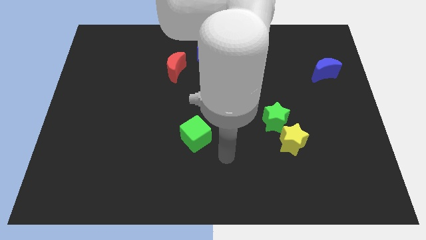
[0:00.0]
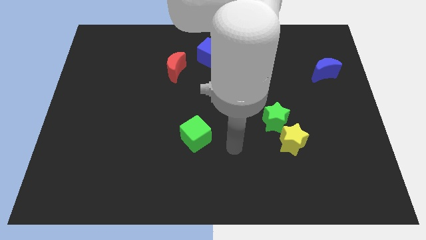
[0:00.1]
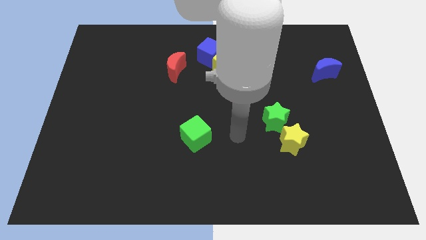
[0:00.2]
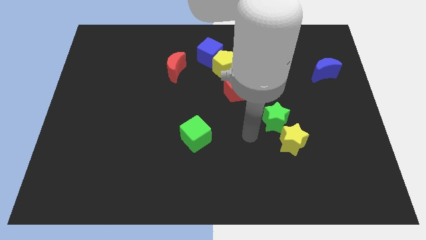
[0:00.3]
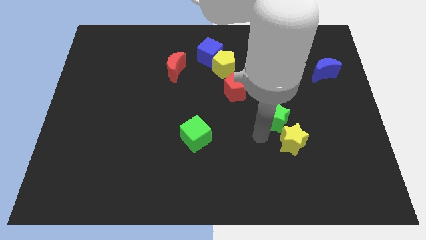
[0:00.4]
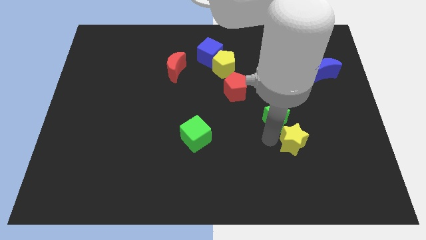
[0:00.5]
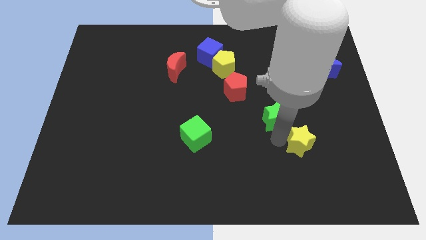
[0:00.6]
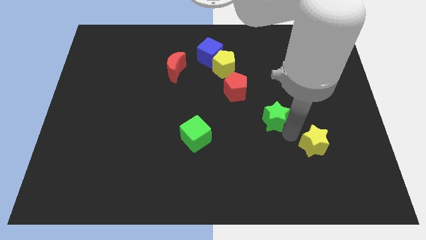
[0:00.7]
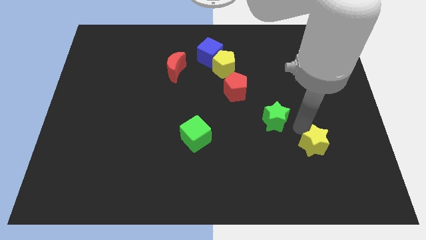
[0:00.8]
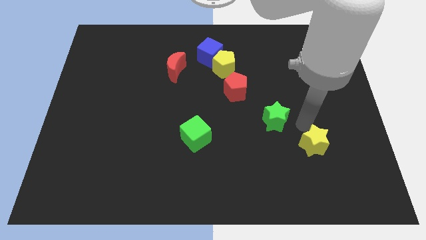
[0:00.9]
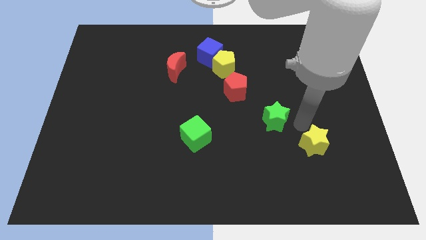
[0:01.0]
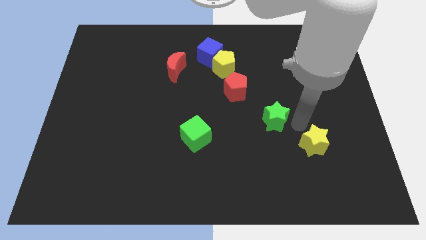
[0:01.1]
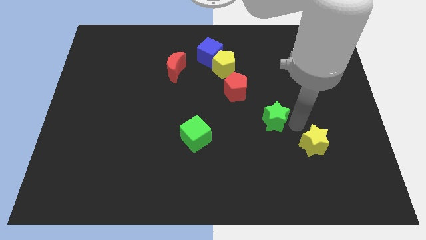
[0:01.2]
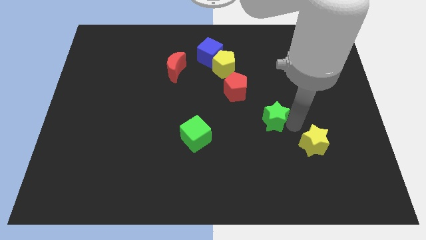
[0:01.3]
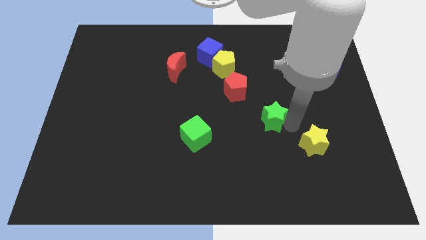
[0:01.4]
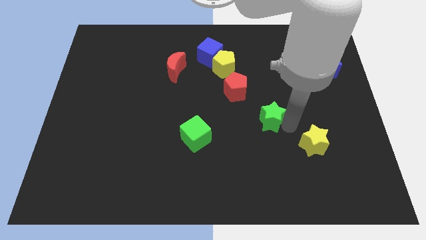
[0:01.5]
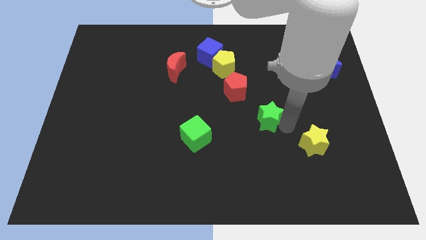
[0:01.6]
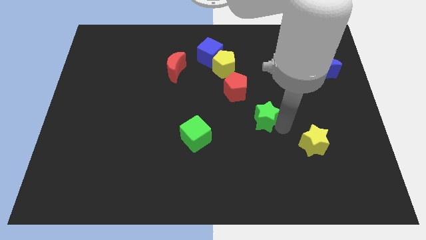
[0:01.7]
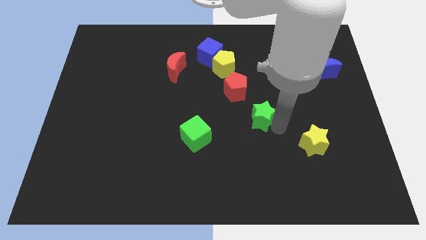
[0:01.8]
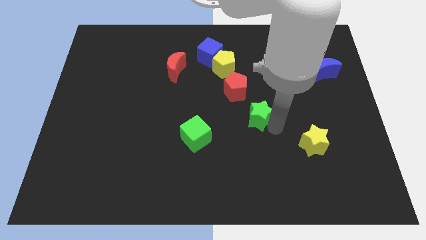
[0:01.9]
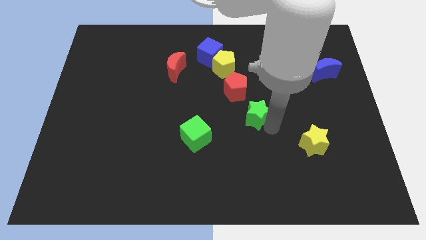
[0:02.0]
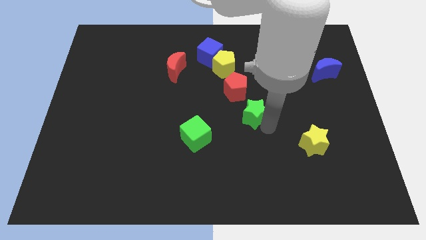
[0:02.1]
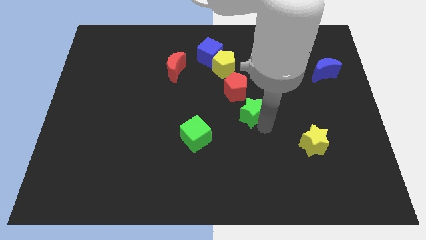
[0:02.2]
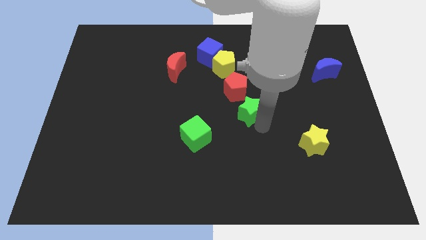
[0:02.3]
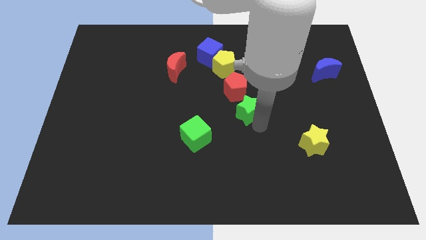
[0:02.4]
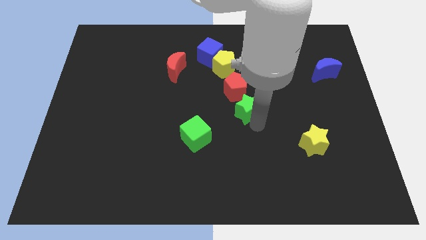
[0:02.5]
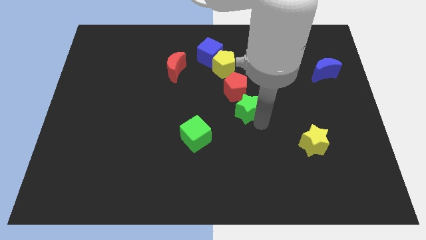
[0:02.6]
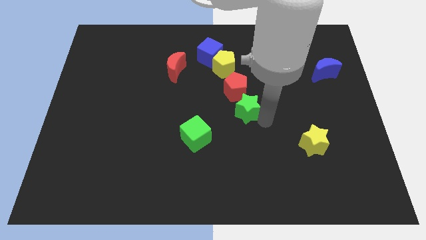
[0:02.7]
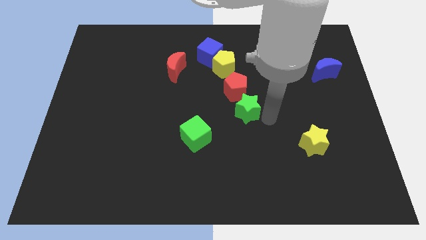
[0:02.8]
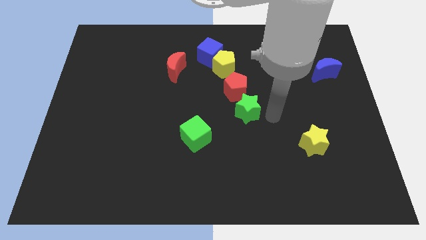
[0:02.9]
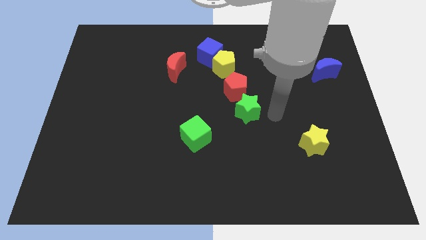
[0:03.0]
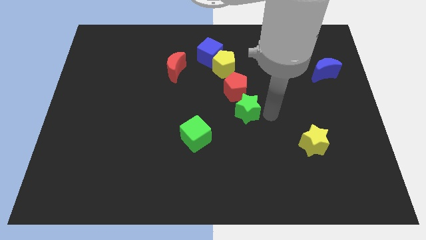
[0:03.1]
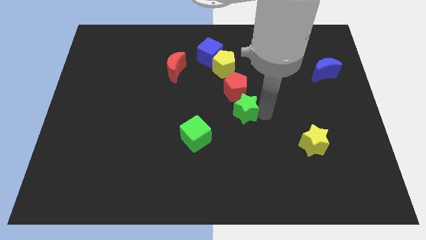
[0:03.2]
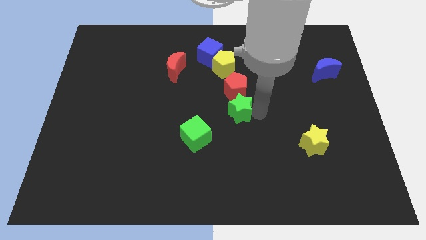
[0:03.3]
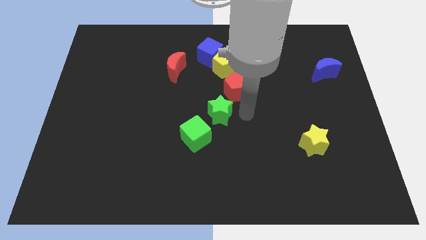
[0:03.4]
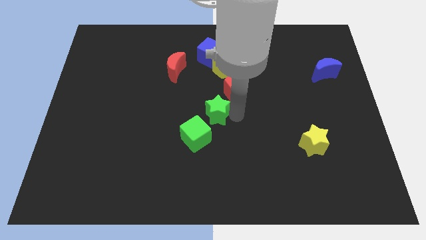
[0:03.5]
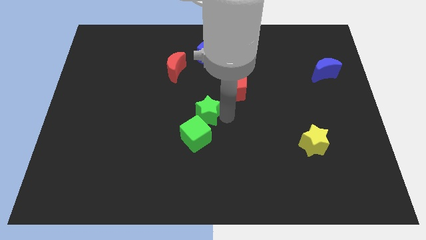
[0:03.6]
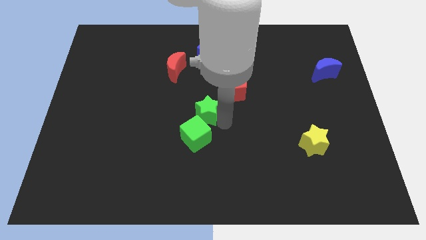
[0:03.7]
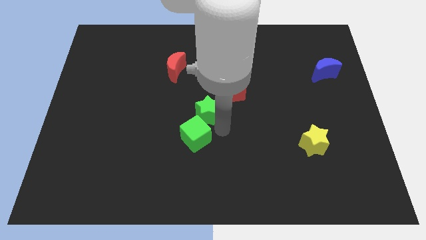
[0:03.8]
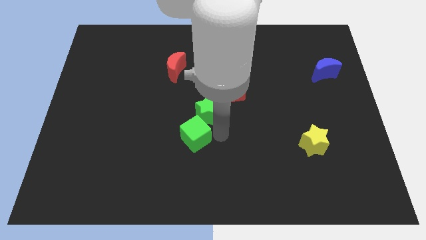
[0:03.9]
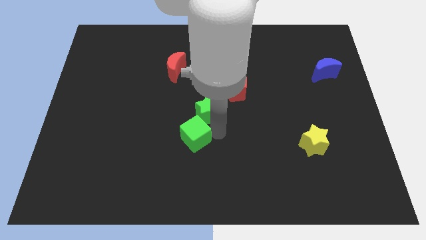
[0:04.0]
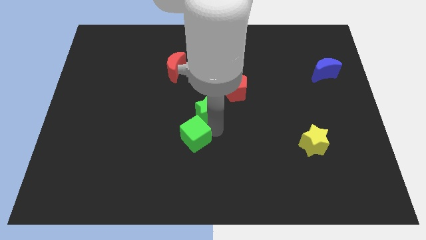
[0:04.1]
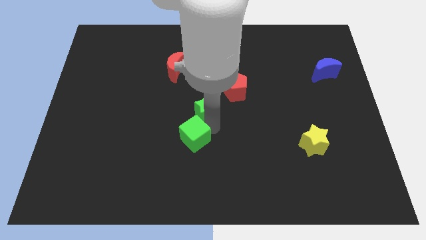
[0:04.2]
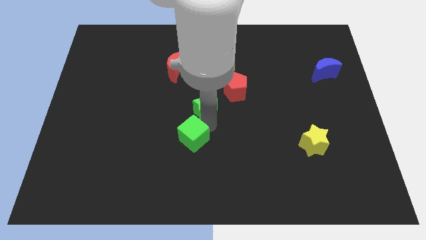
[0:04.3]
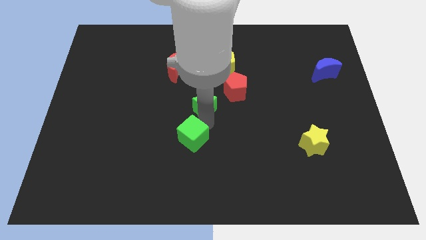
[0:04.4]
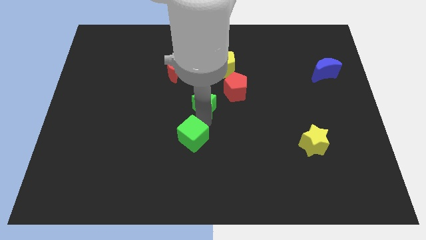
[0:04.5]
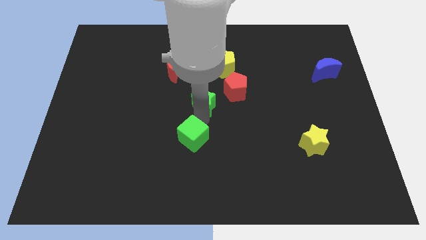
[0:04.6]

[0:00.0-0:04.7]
move the green star left of the red pentagon

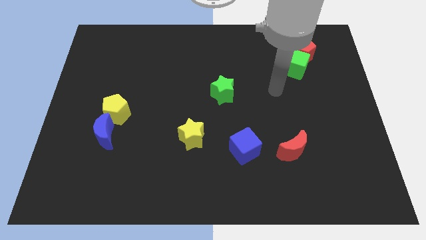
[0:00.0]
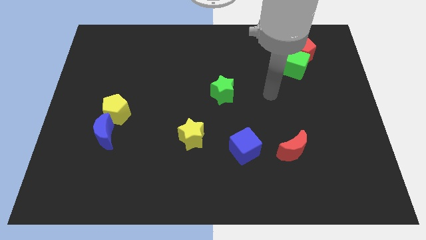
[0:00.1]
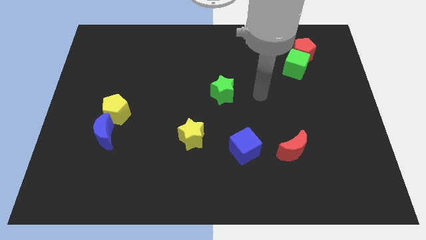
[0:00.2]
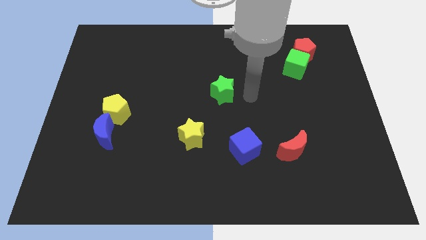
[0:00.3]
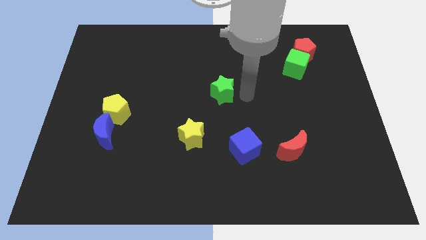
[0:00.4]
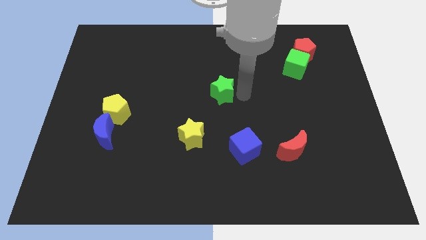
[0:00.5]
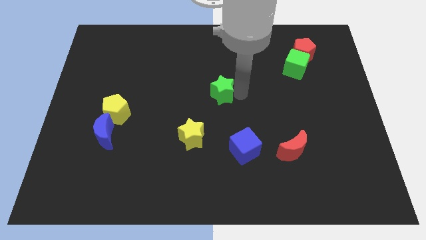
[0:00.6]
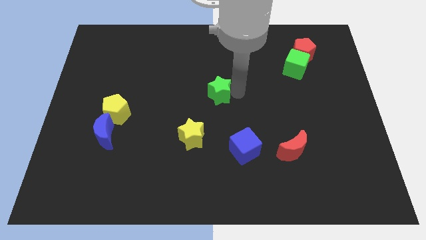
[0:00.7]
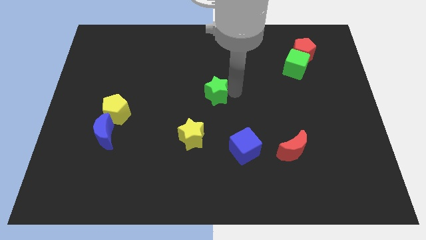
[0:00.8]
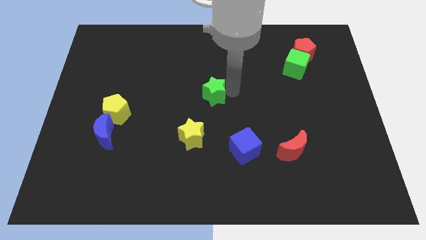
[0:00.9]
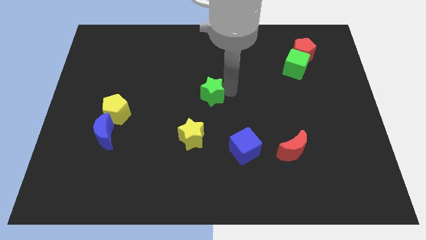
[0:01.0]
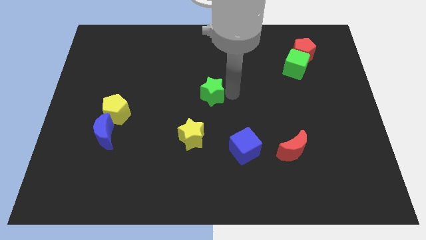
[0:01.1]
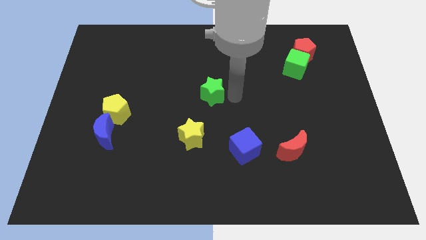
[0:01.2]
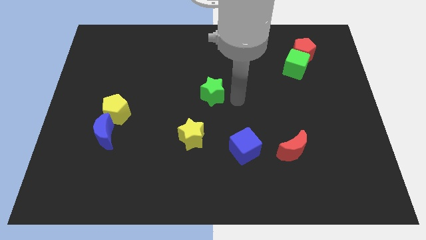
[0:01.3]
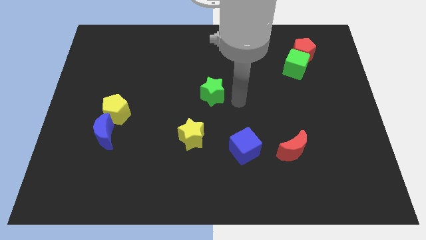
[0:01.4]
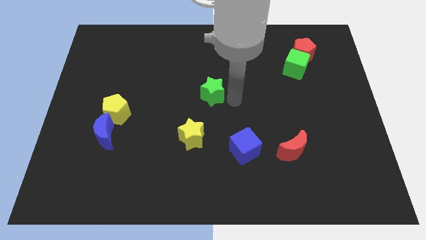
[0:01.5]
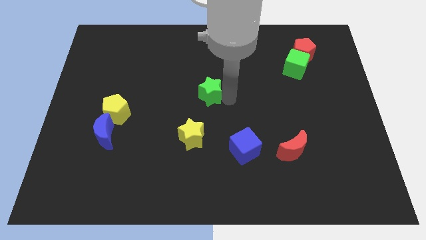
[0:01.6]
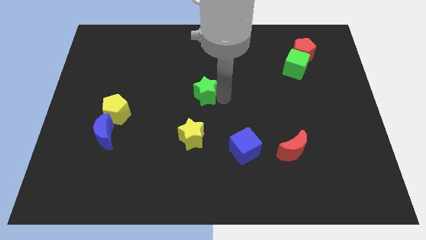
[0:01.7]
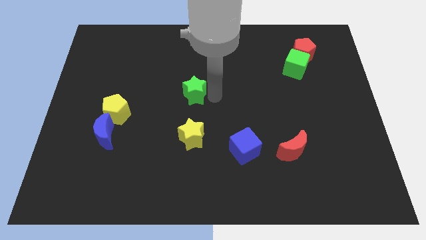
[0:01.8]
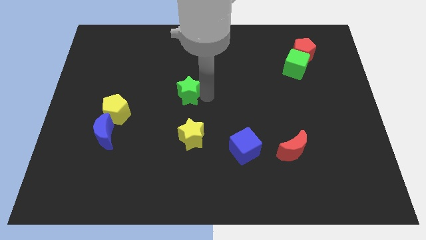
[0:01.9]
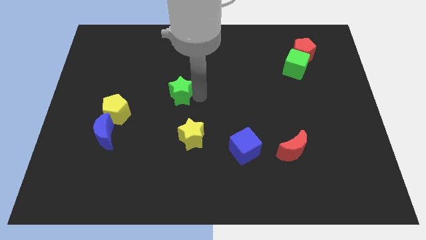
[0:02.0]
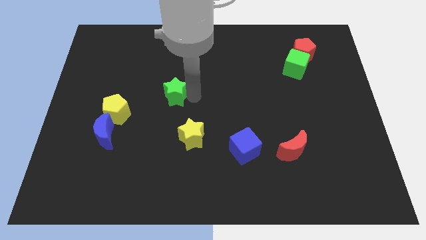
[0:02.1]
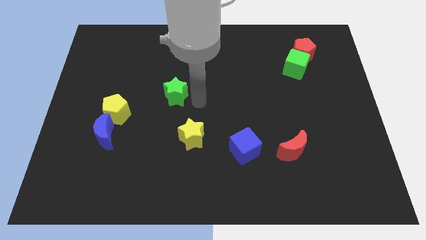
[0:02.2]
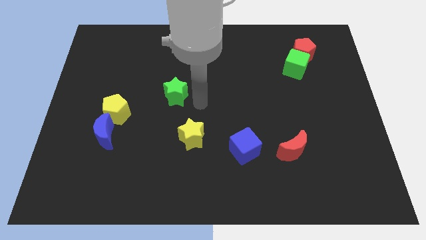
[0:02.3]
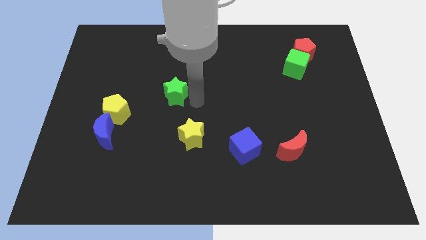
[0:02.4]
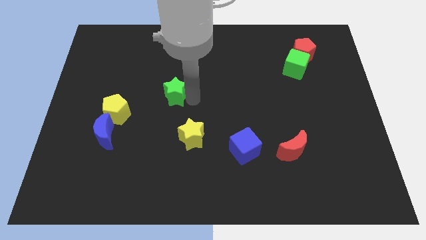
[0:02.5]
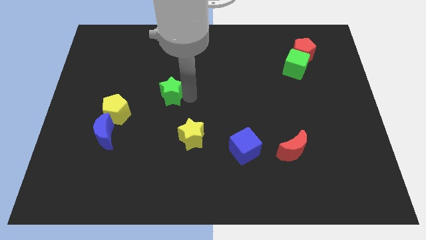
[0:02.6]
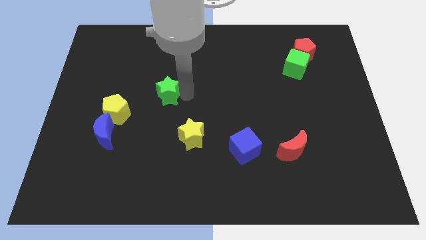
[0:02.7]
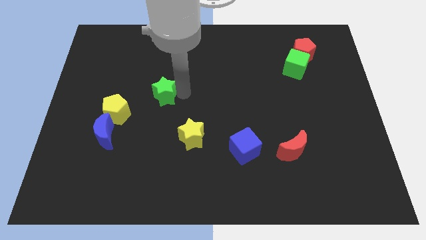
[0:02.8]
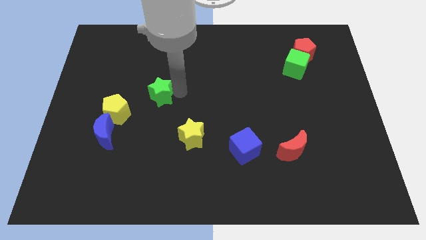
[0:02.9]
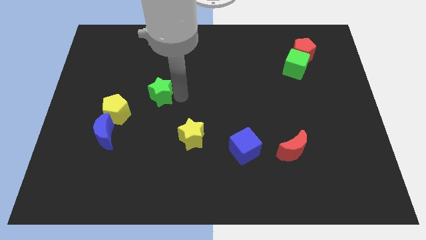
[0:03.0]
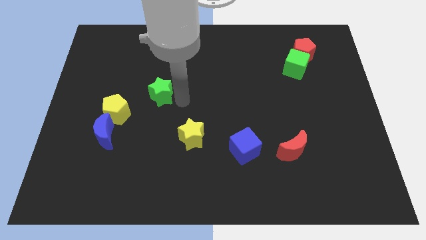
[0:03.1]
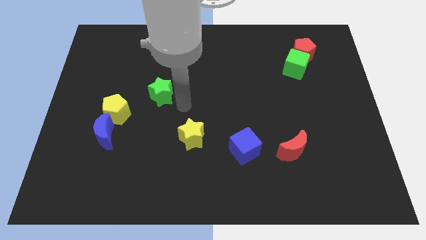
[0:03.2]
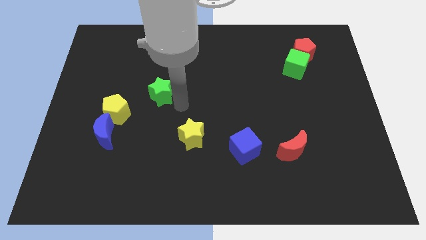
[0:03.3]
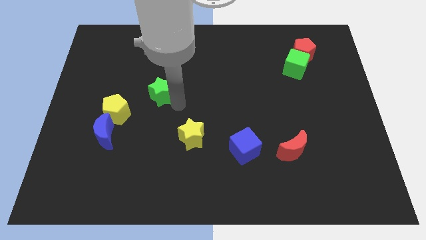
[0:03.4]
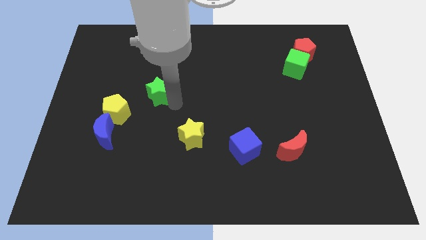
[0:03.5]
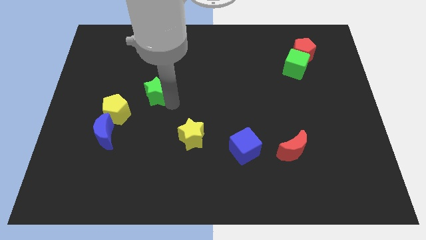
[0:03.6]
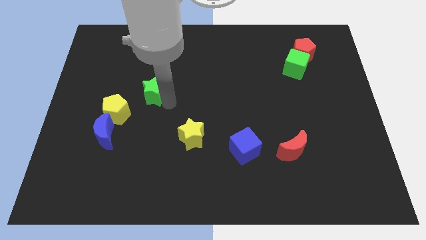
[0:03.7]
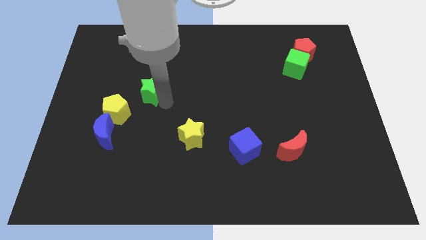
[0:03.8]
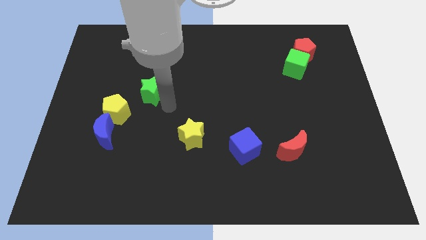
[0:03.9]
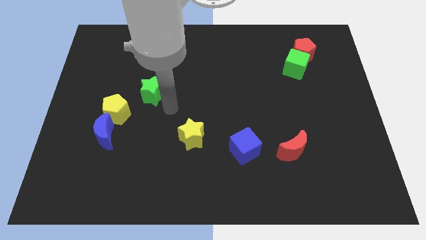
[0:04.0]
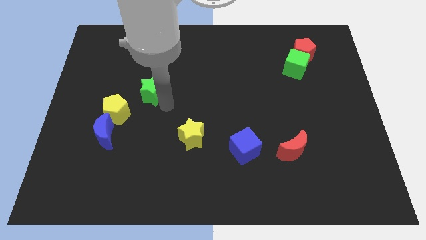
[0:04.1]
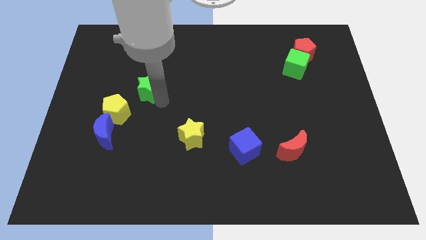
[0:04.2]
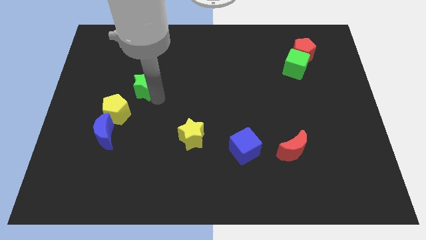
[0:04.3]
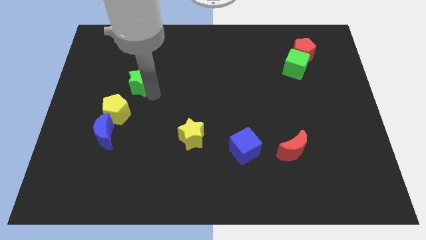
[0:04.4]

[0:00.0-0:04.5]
move the green star to the top side of the yellow pentagon
